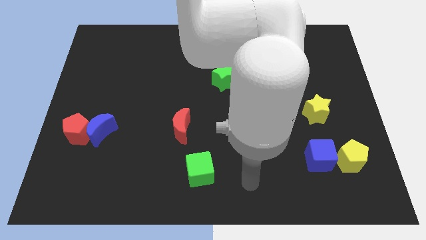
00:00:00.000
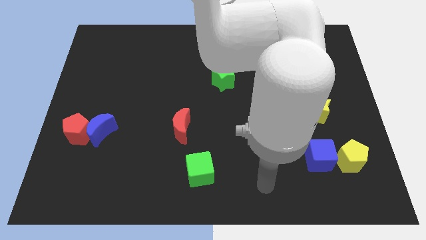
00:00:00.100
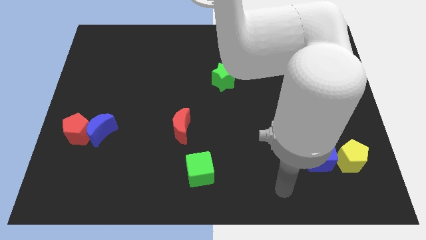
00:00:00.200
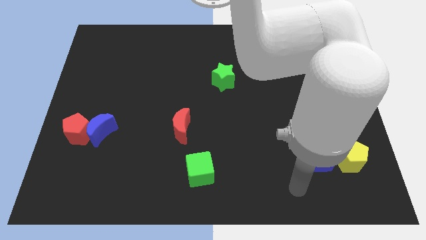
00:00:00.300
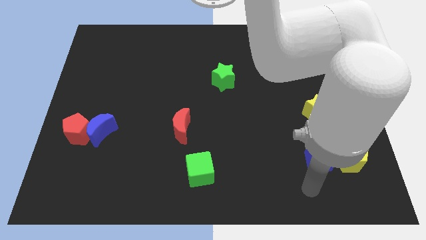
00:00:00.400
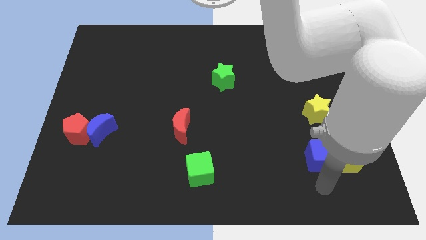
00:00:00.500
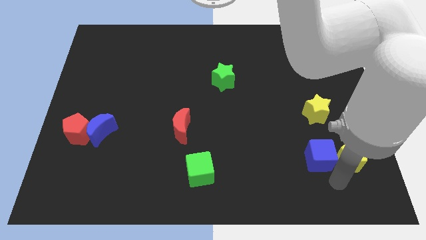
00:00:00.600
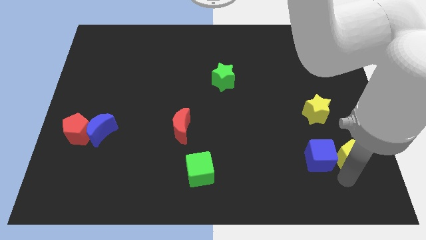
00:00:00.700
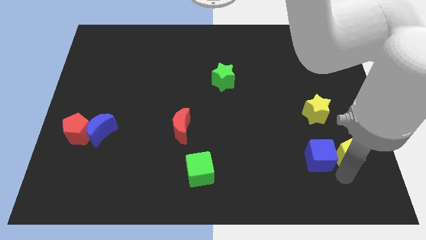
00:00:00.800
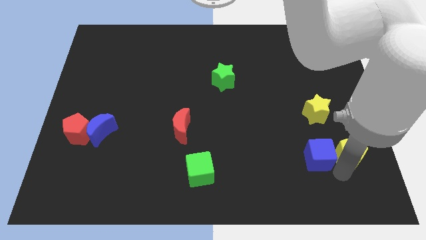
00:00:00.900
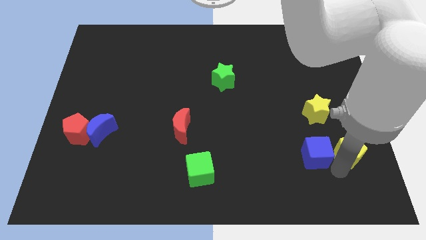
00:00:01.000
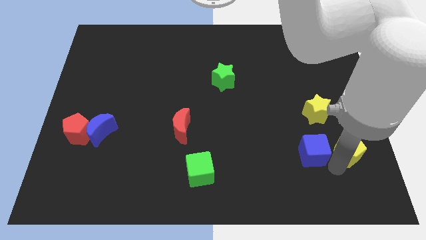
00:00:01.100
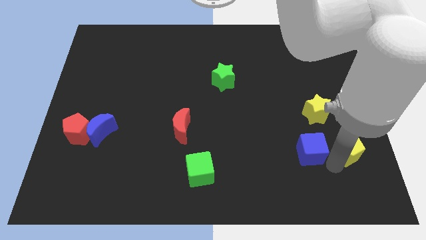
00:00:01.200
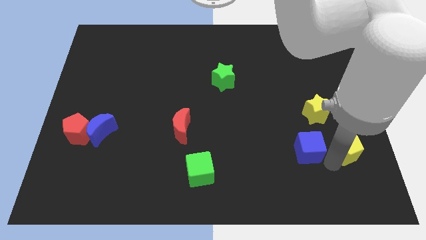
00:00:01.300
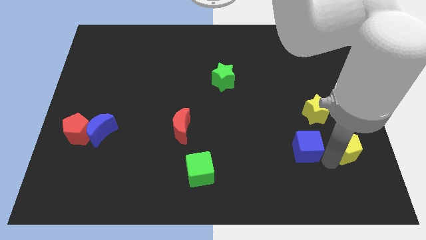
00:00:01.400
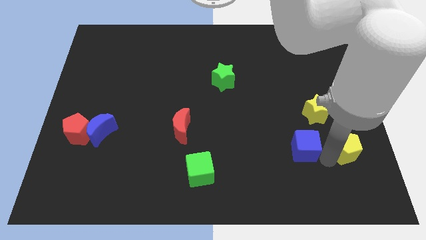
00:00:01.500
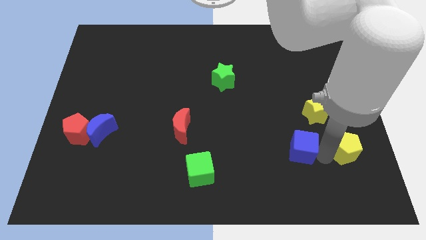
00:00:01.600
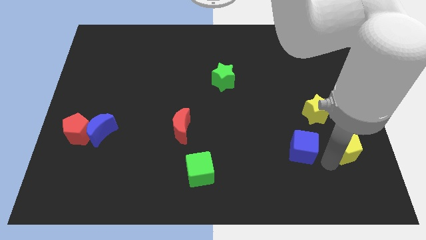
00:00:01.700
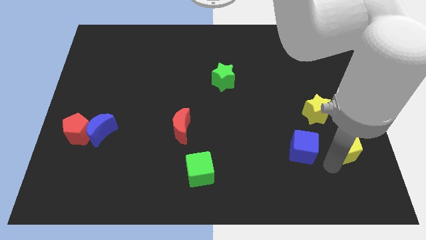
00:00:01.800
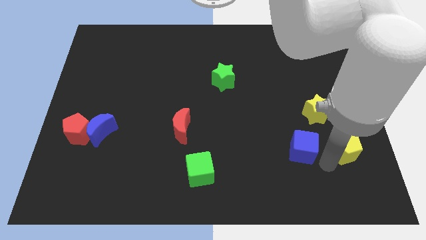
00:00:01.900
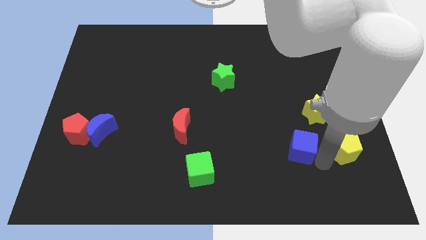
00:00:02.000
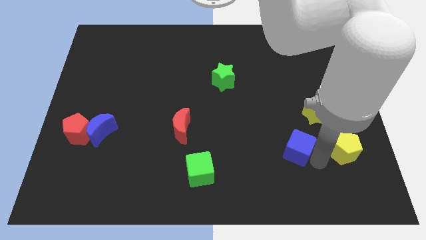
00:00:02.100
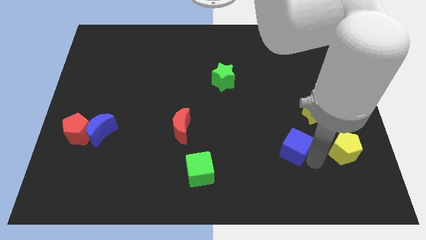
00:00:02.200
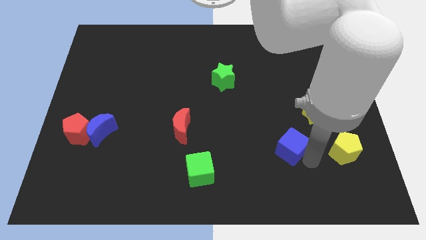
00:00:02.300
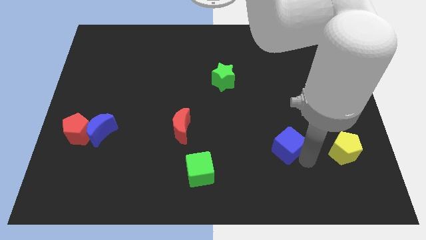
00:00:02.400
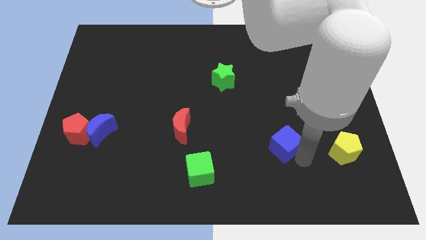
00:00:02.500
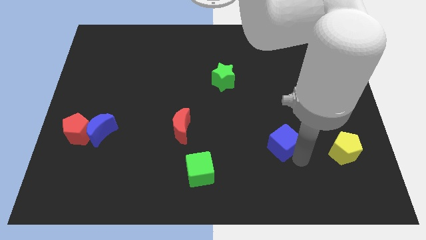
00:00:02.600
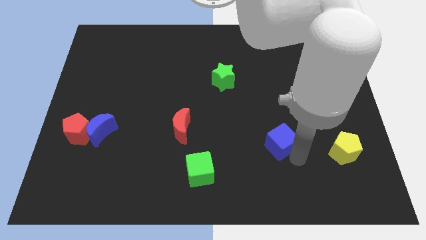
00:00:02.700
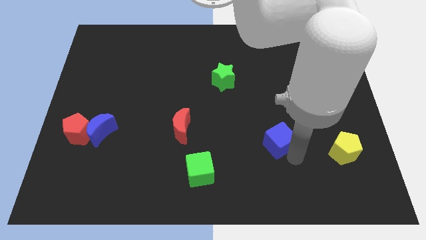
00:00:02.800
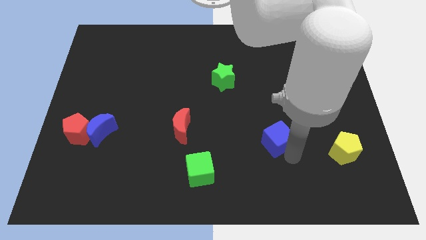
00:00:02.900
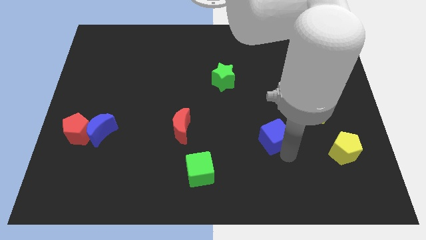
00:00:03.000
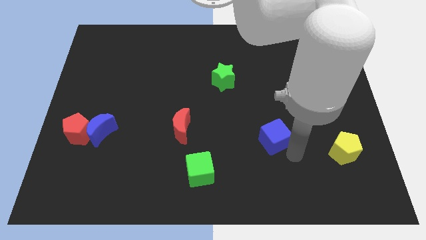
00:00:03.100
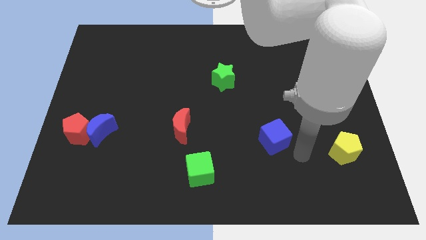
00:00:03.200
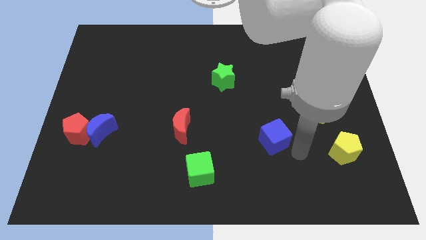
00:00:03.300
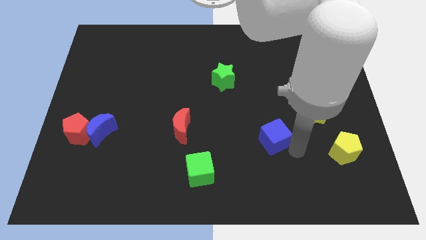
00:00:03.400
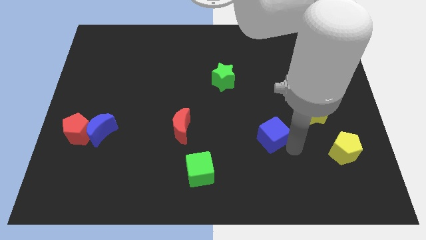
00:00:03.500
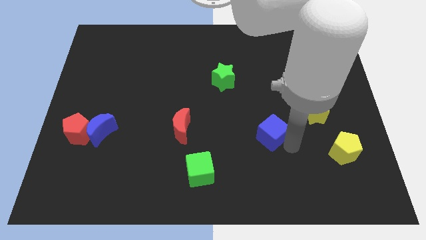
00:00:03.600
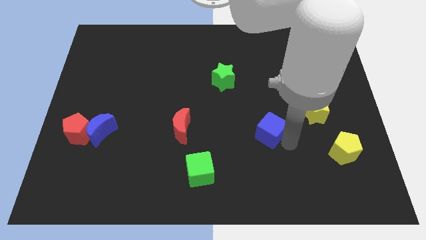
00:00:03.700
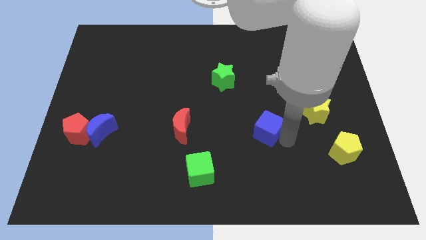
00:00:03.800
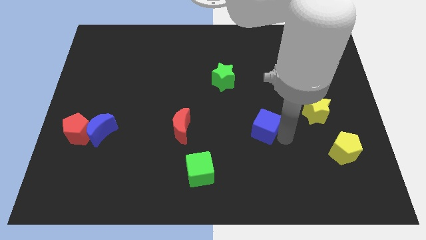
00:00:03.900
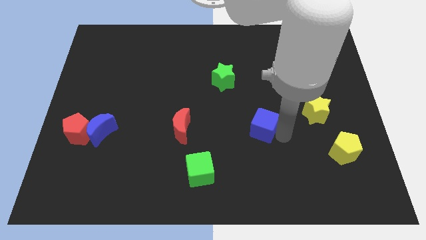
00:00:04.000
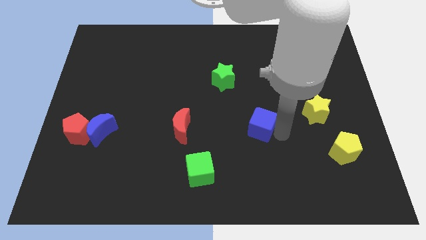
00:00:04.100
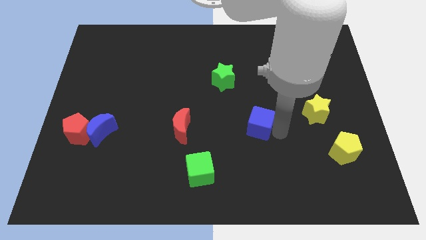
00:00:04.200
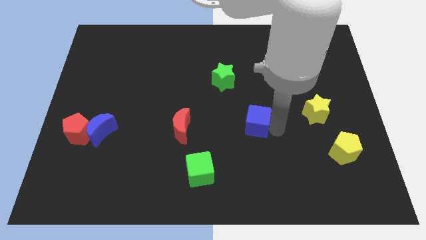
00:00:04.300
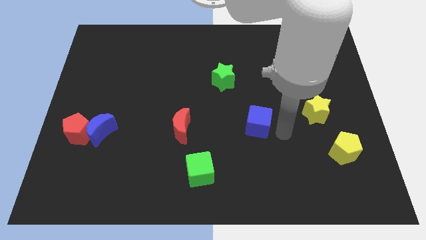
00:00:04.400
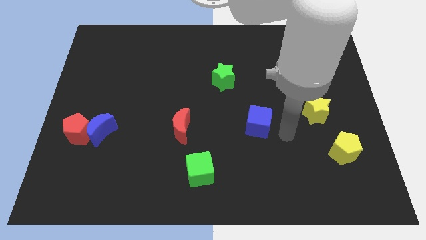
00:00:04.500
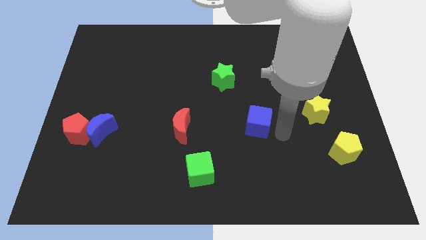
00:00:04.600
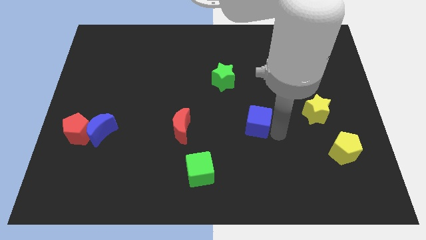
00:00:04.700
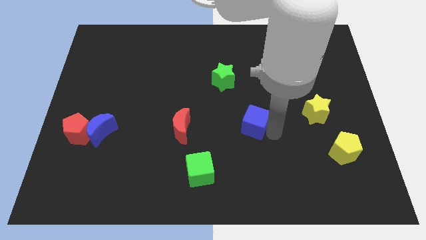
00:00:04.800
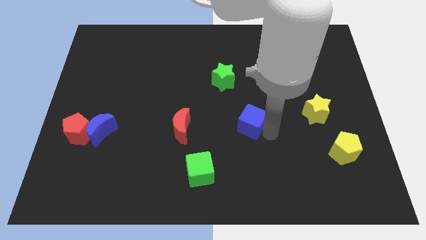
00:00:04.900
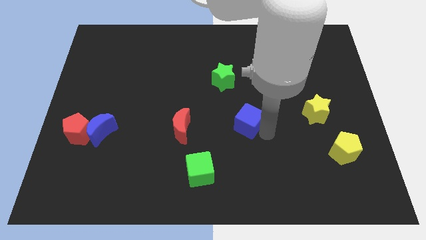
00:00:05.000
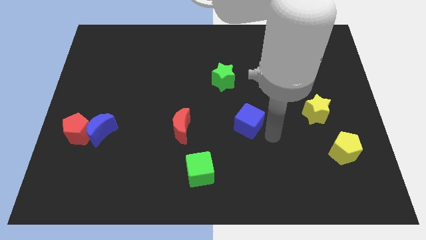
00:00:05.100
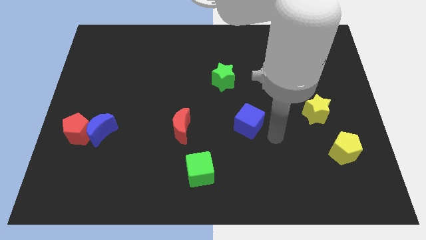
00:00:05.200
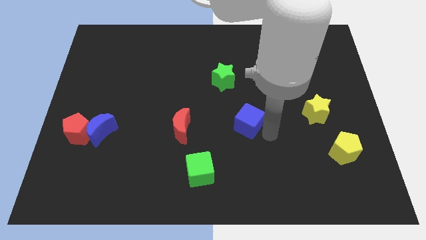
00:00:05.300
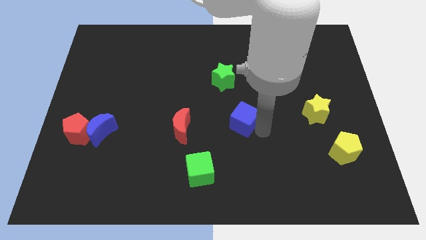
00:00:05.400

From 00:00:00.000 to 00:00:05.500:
move the blue cube to the bottom side of the green star

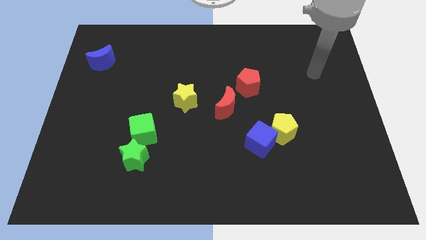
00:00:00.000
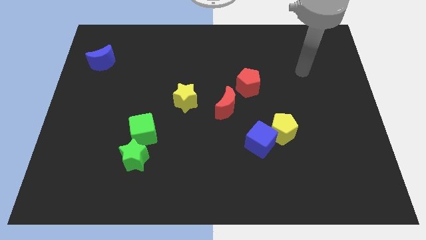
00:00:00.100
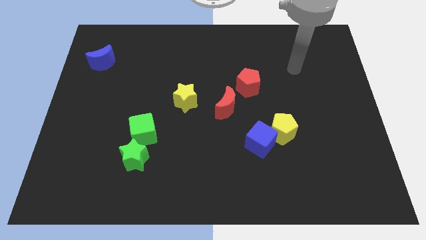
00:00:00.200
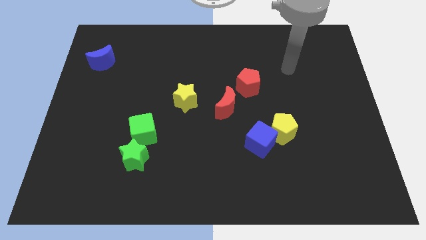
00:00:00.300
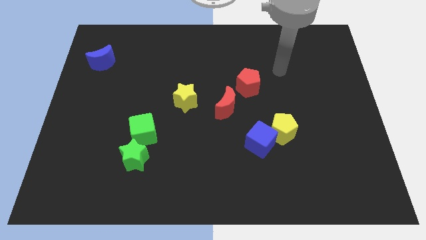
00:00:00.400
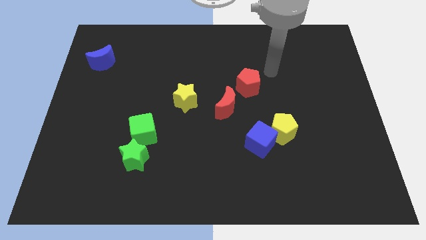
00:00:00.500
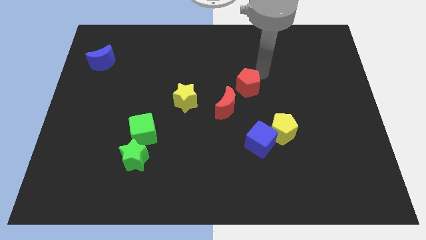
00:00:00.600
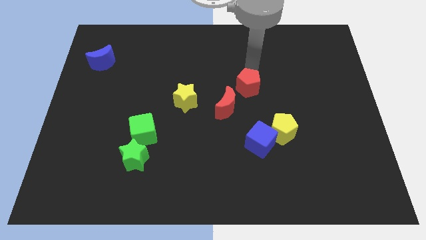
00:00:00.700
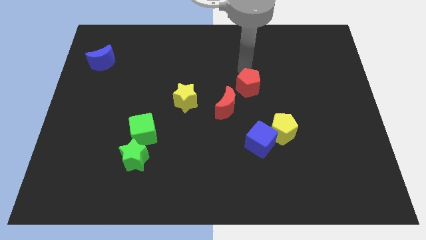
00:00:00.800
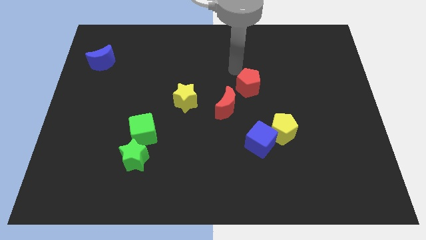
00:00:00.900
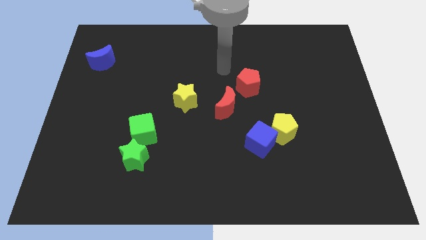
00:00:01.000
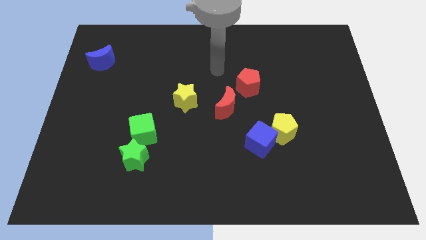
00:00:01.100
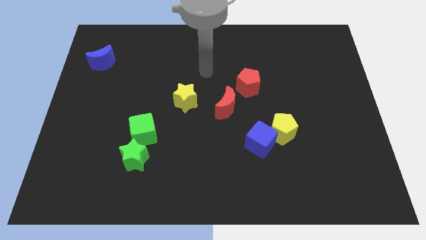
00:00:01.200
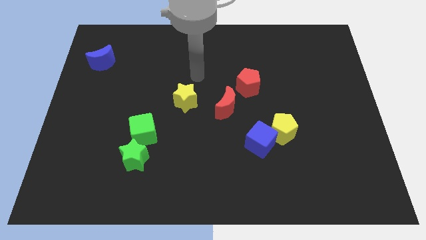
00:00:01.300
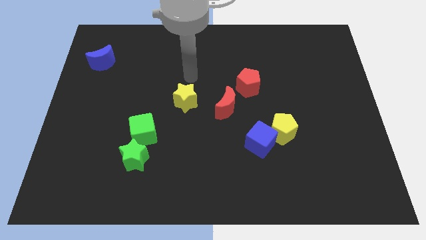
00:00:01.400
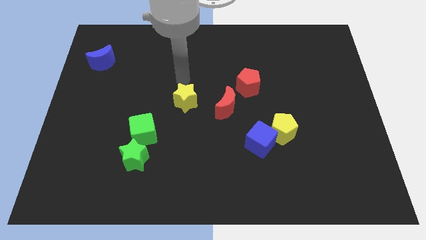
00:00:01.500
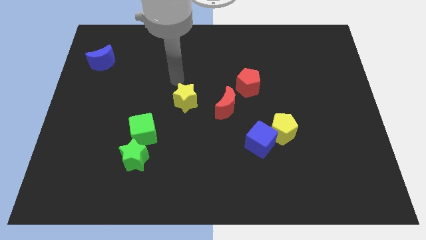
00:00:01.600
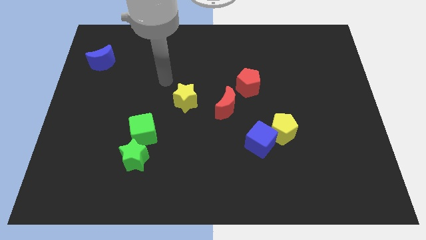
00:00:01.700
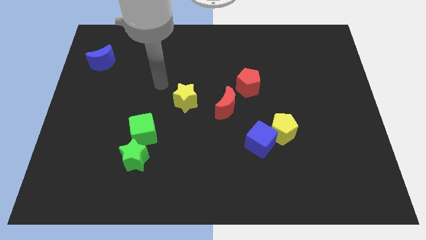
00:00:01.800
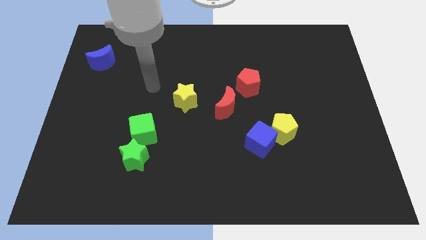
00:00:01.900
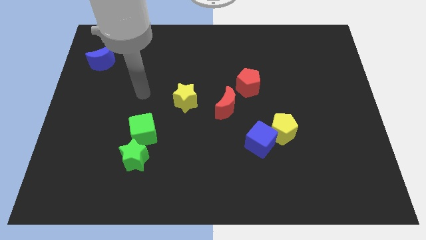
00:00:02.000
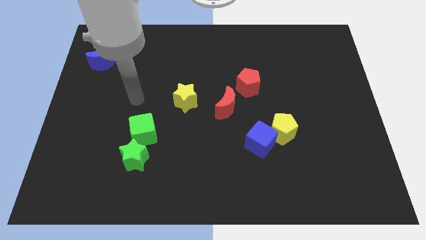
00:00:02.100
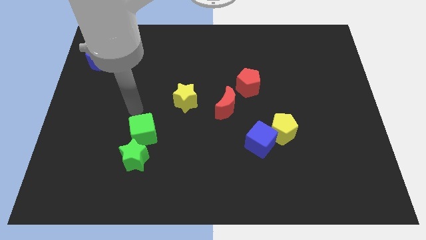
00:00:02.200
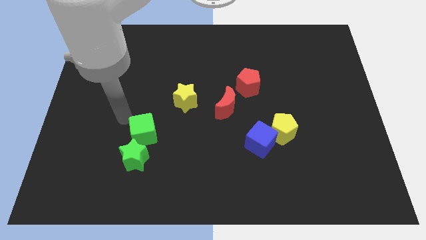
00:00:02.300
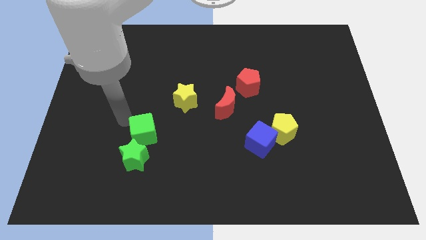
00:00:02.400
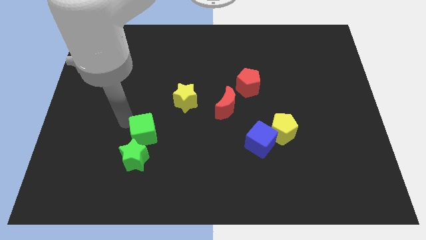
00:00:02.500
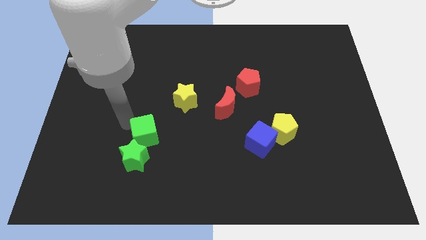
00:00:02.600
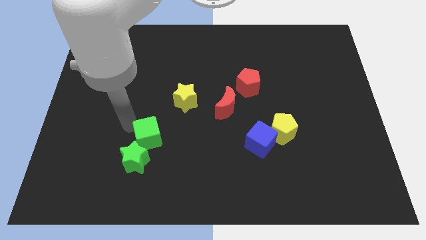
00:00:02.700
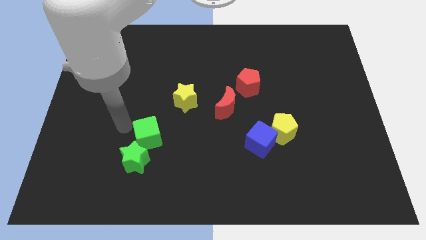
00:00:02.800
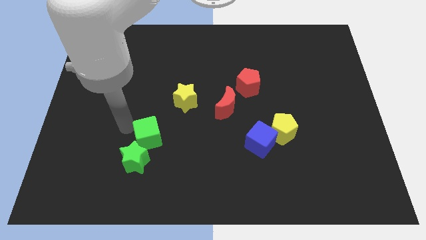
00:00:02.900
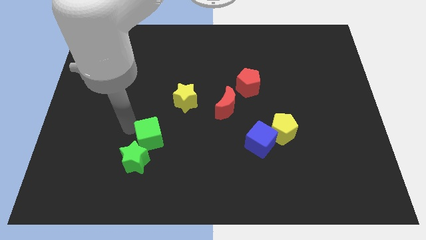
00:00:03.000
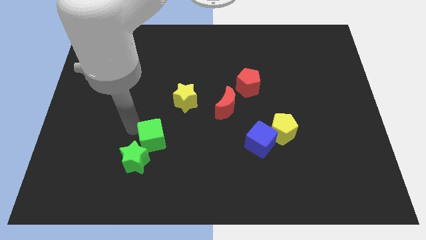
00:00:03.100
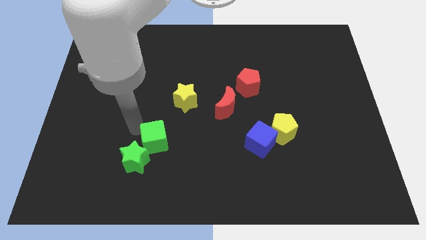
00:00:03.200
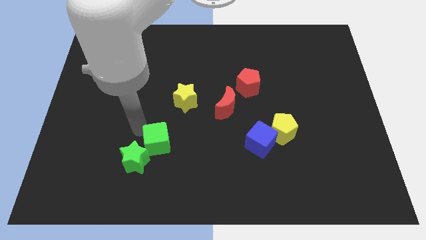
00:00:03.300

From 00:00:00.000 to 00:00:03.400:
push the green cube to the right side of the green star

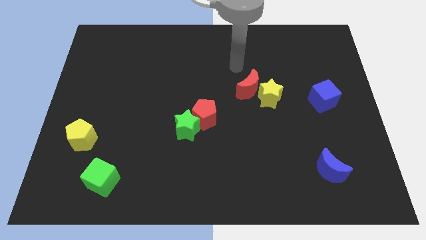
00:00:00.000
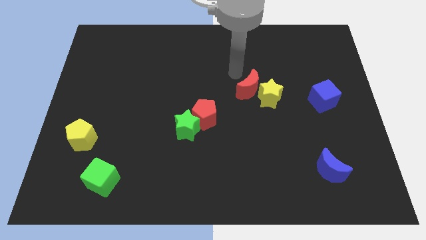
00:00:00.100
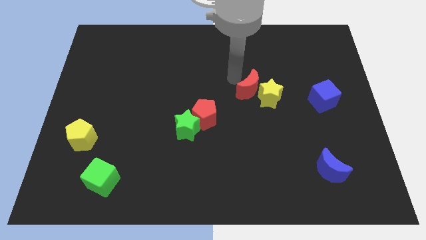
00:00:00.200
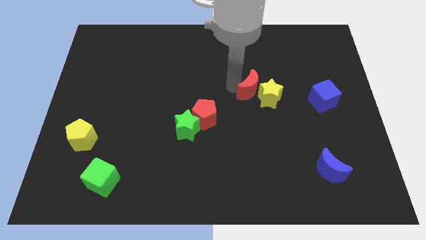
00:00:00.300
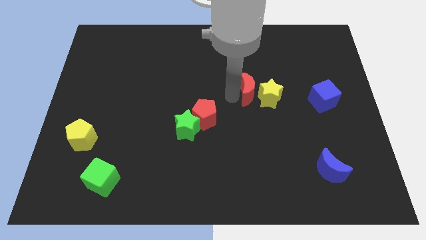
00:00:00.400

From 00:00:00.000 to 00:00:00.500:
slide the yellow star to the top right side of the red moon
